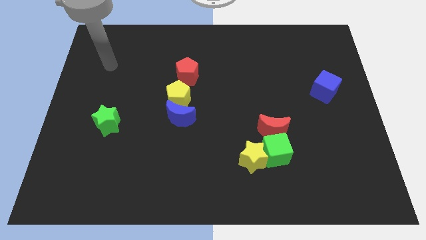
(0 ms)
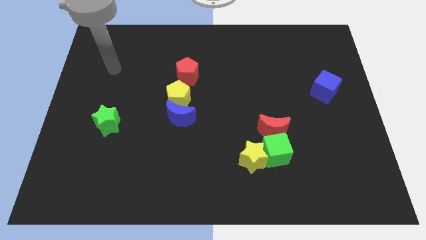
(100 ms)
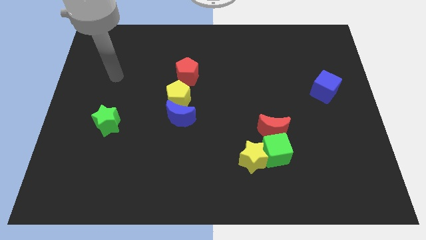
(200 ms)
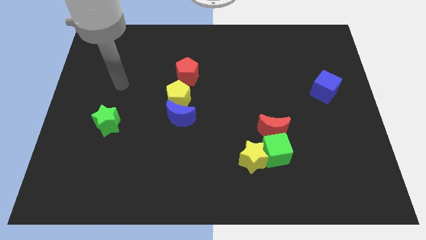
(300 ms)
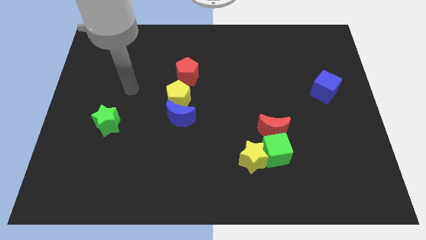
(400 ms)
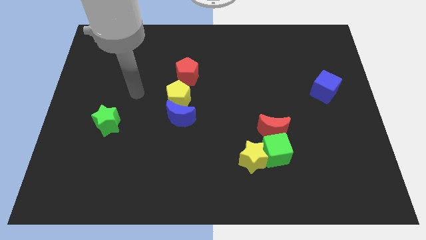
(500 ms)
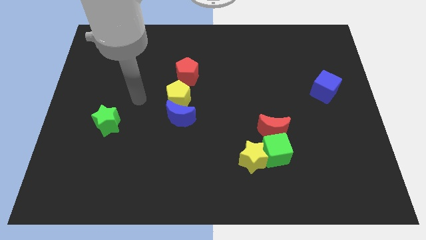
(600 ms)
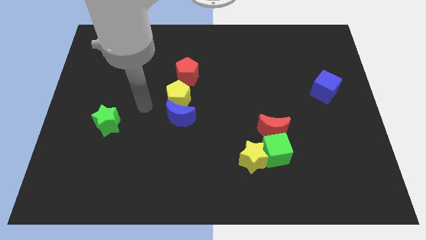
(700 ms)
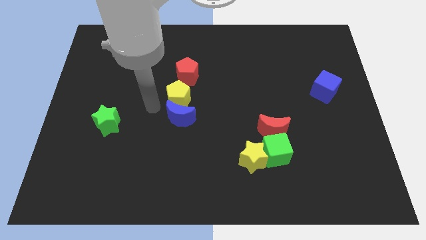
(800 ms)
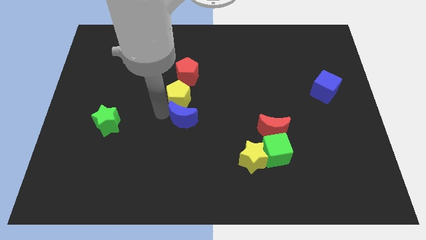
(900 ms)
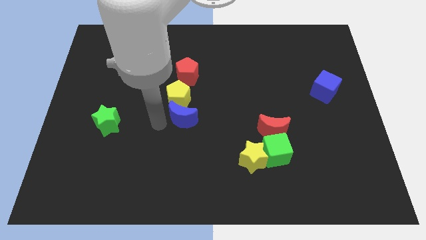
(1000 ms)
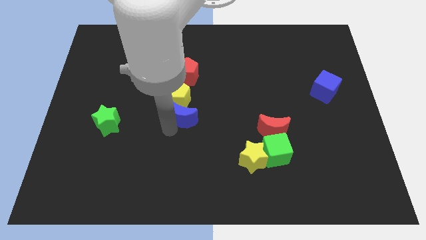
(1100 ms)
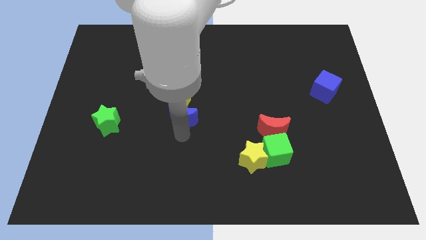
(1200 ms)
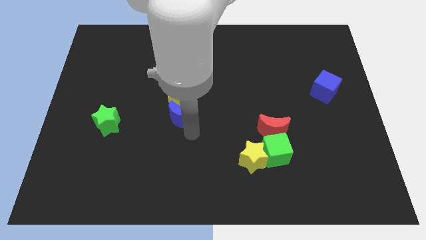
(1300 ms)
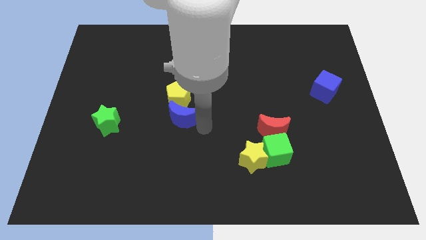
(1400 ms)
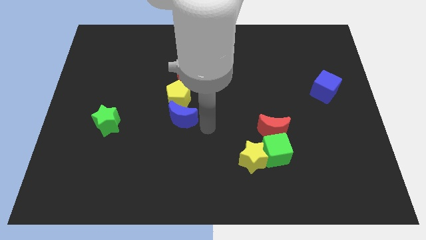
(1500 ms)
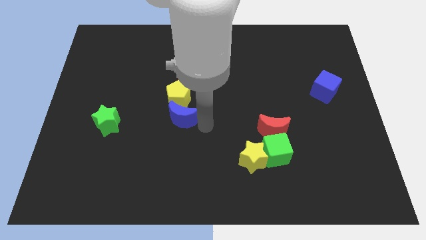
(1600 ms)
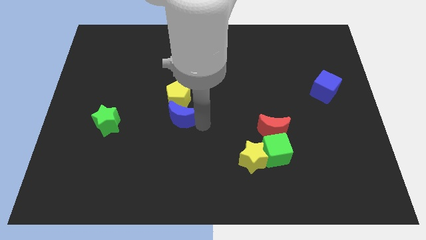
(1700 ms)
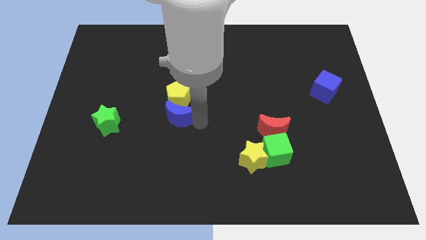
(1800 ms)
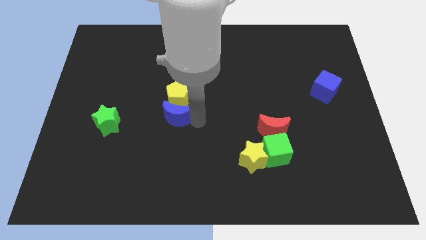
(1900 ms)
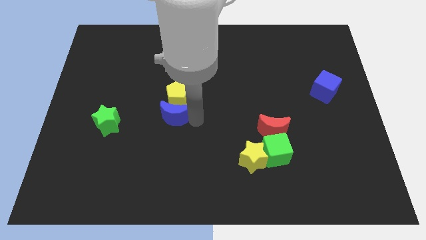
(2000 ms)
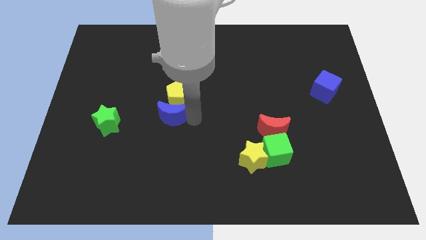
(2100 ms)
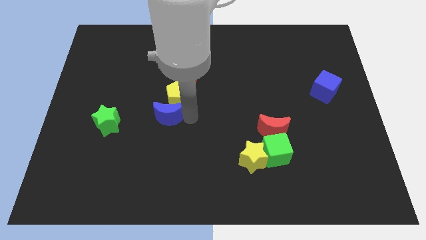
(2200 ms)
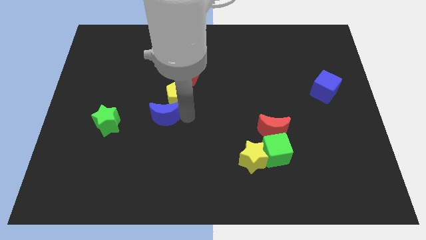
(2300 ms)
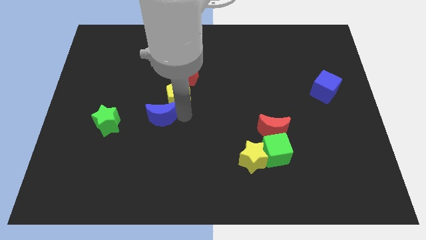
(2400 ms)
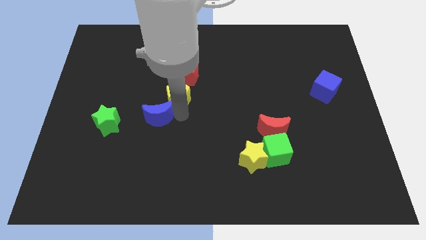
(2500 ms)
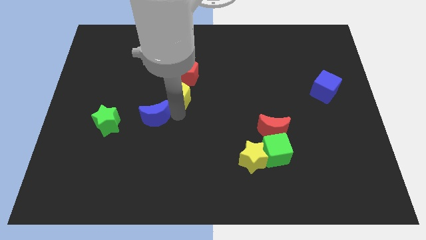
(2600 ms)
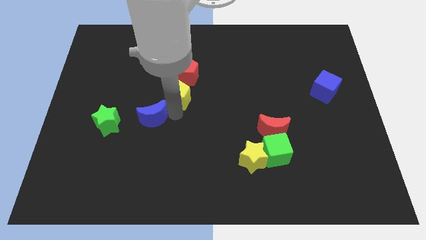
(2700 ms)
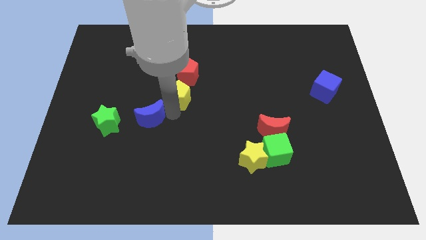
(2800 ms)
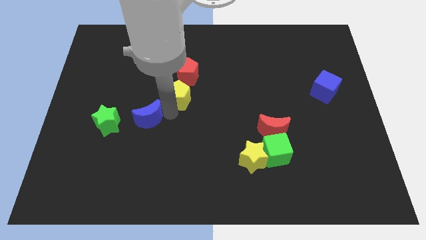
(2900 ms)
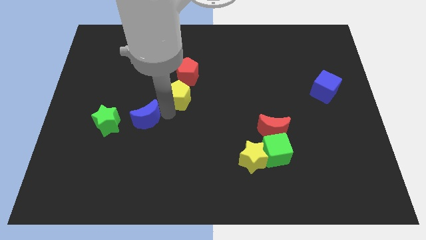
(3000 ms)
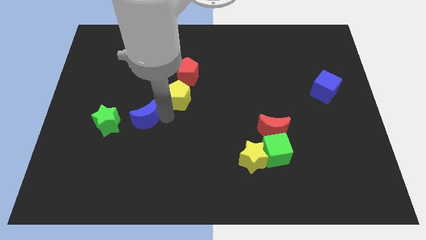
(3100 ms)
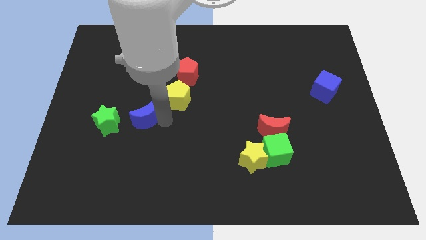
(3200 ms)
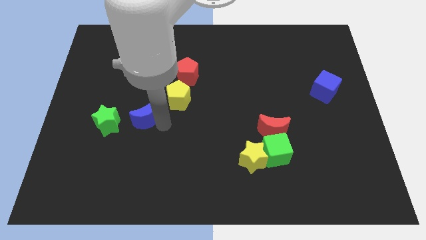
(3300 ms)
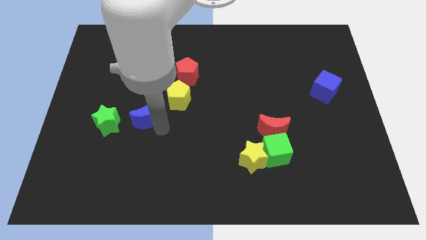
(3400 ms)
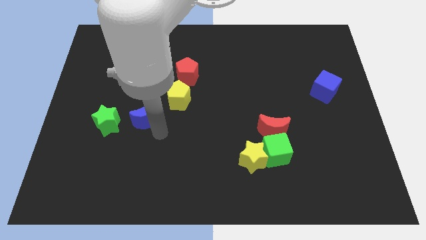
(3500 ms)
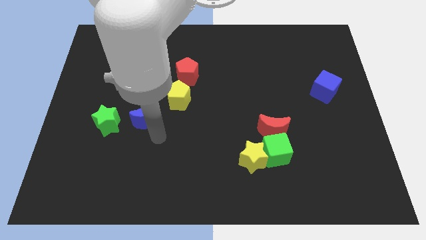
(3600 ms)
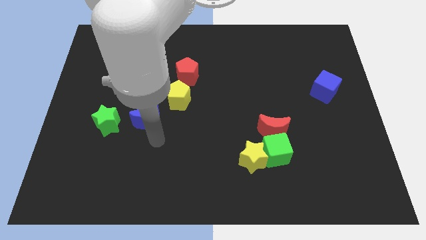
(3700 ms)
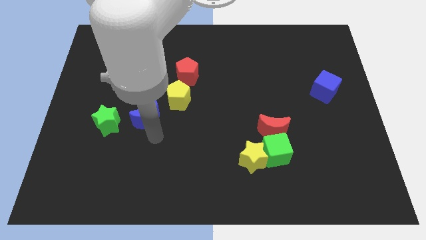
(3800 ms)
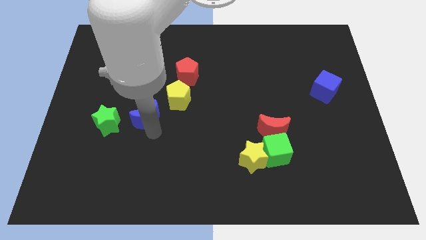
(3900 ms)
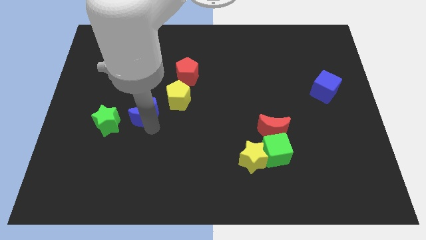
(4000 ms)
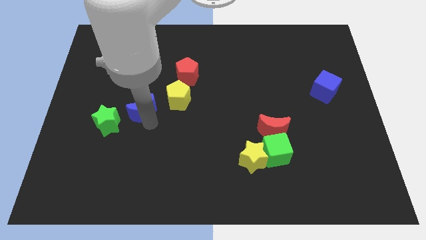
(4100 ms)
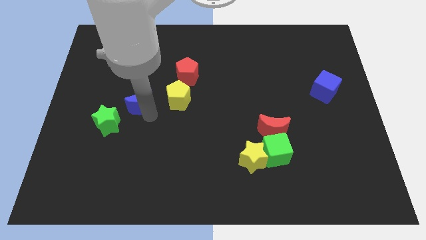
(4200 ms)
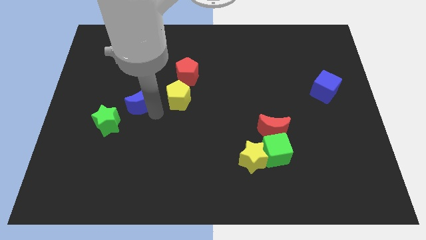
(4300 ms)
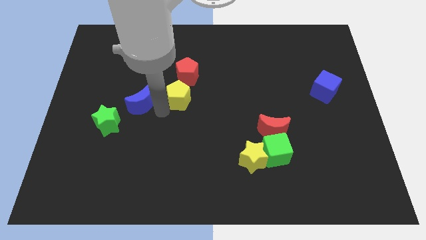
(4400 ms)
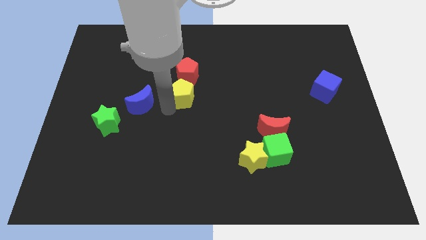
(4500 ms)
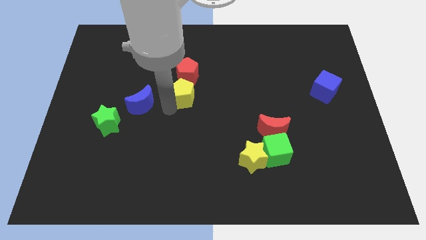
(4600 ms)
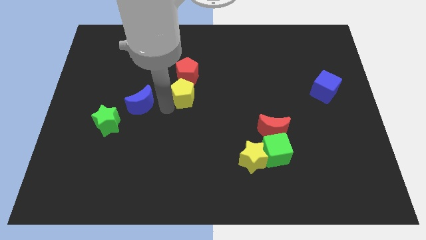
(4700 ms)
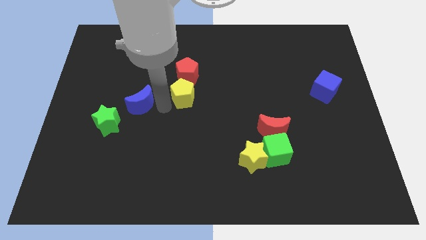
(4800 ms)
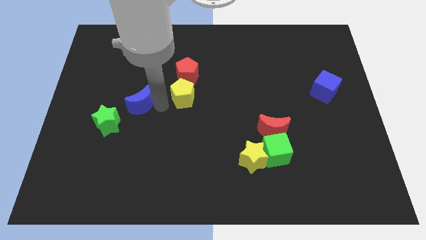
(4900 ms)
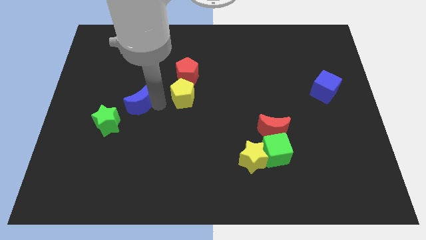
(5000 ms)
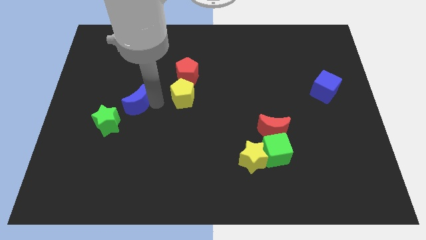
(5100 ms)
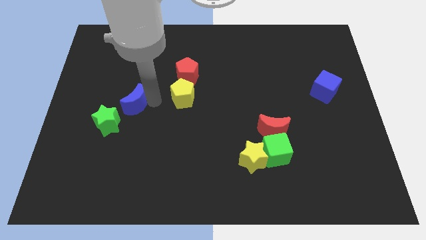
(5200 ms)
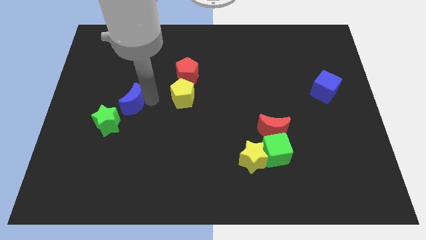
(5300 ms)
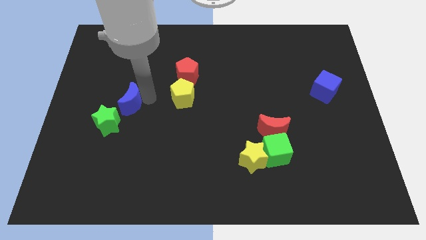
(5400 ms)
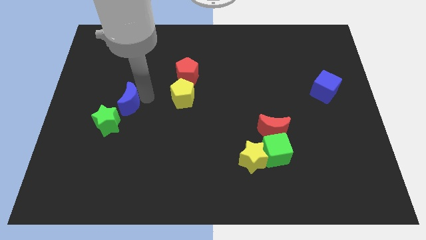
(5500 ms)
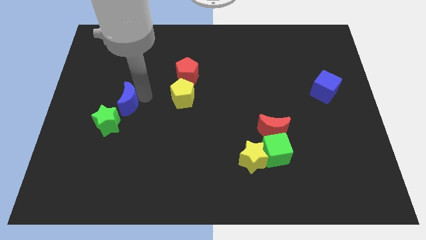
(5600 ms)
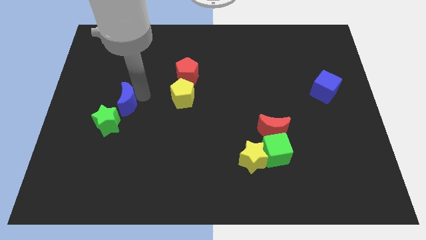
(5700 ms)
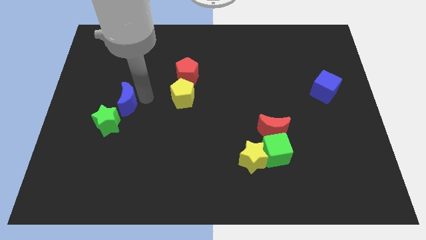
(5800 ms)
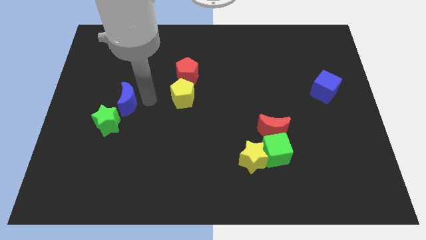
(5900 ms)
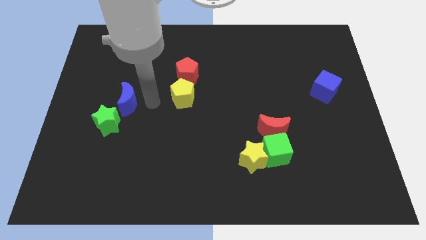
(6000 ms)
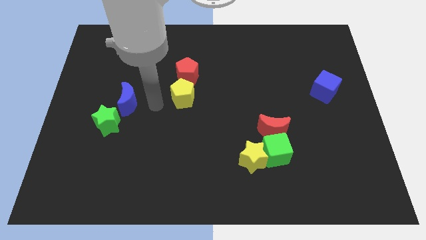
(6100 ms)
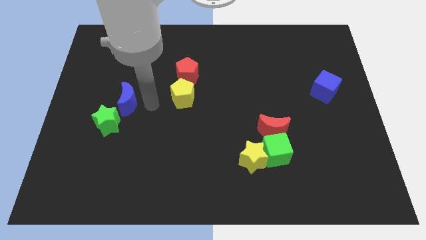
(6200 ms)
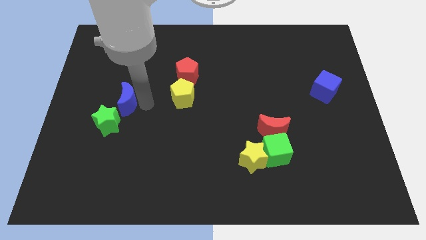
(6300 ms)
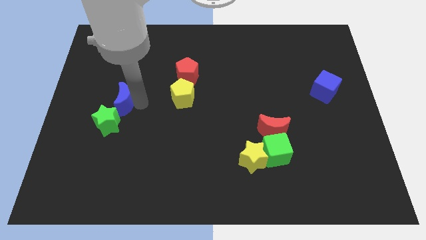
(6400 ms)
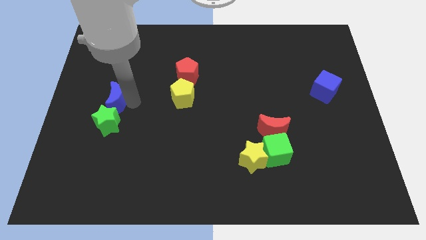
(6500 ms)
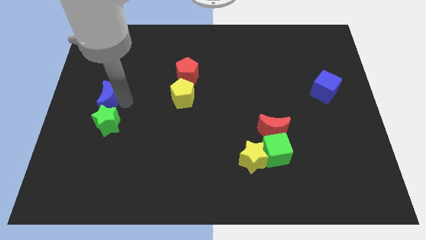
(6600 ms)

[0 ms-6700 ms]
slide the blue moon to the center left

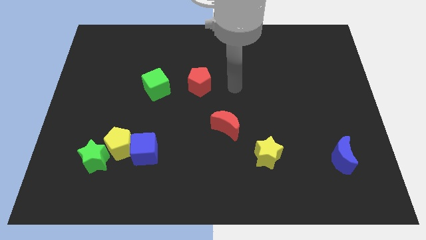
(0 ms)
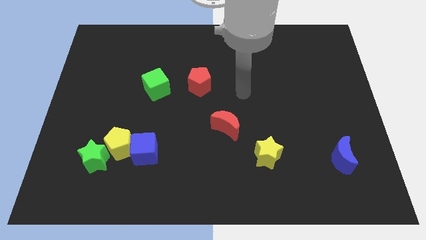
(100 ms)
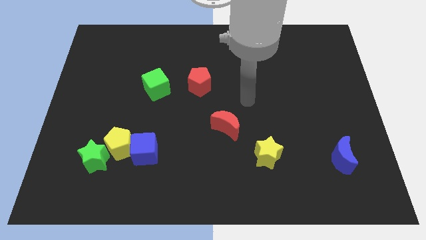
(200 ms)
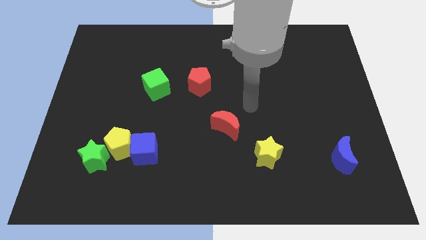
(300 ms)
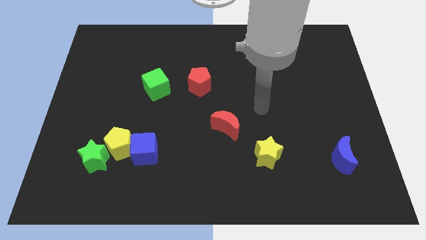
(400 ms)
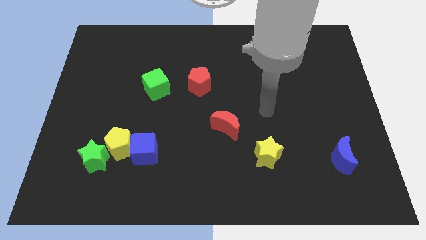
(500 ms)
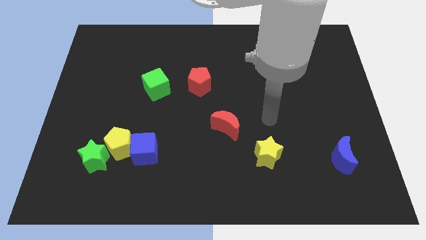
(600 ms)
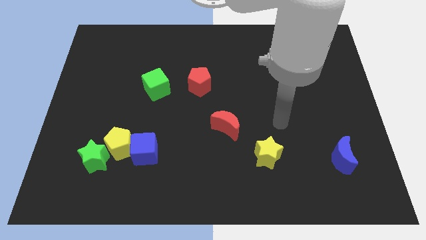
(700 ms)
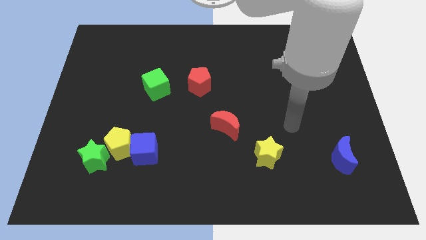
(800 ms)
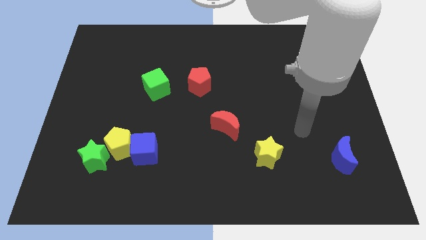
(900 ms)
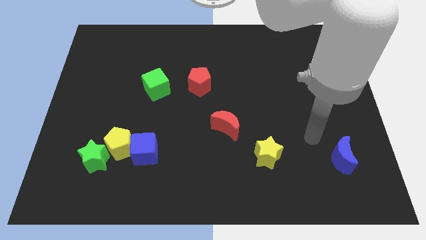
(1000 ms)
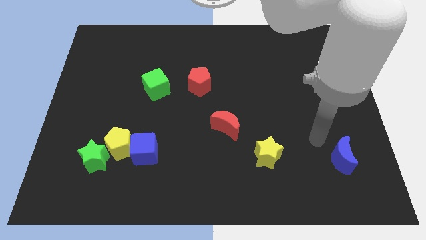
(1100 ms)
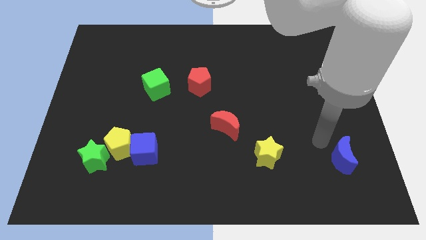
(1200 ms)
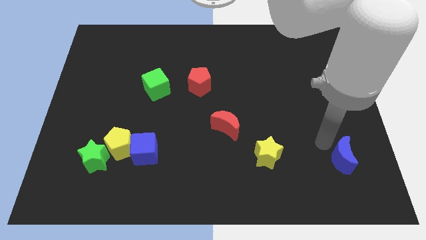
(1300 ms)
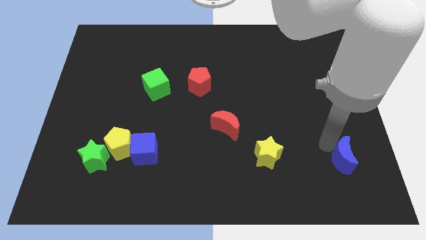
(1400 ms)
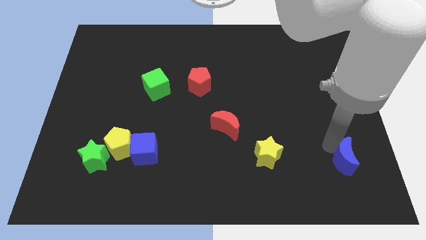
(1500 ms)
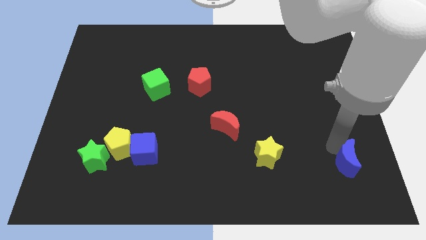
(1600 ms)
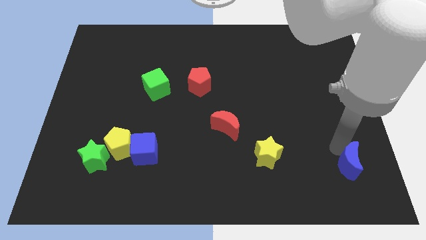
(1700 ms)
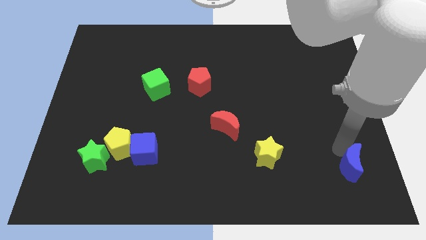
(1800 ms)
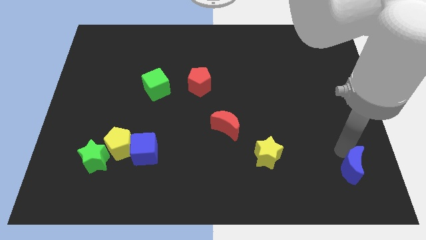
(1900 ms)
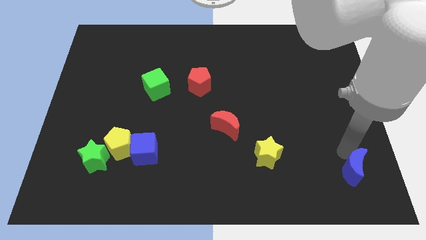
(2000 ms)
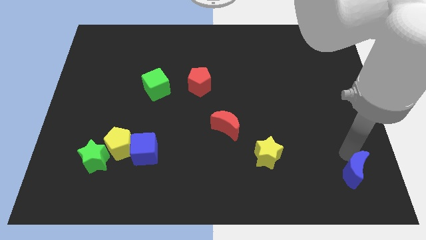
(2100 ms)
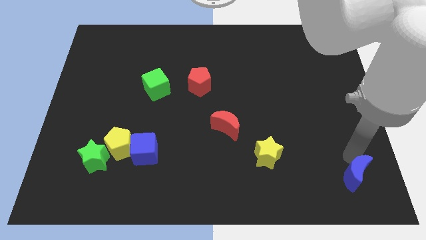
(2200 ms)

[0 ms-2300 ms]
slide the blue moon to the lower right corner
